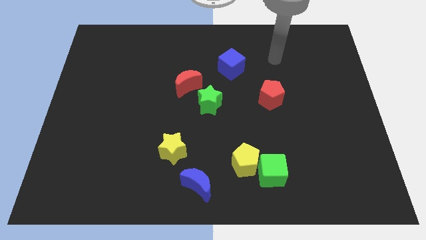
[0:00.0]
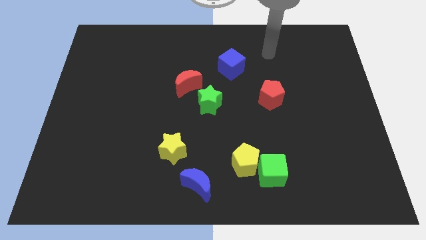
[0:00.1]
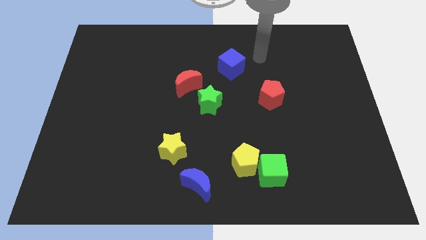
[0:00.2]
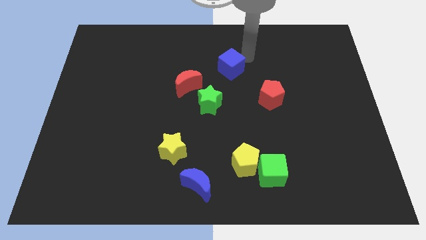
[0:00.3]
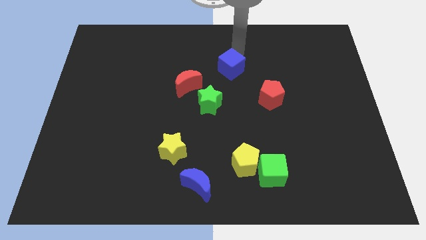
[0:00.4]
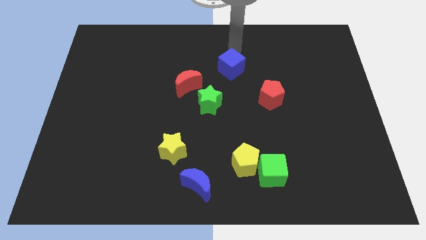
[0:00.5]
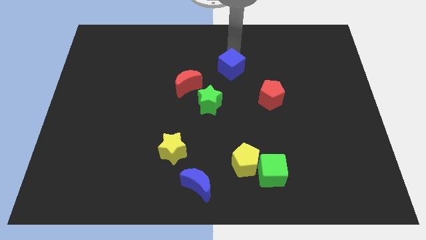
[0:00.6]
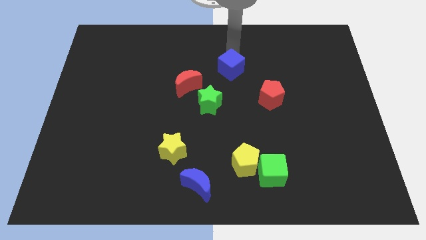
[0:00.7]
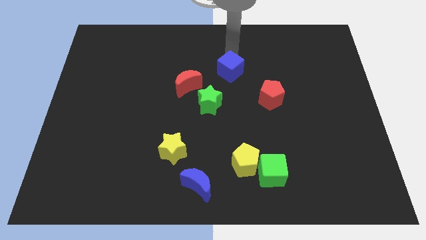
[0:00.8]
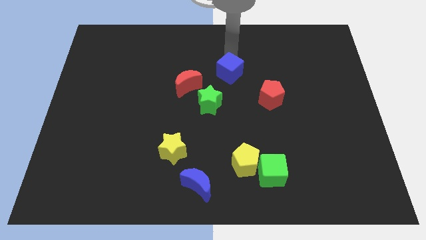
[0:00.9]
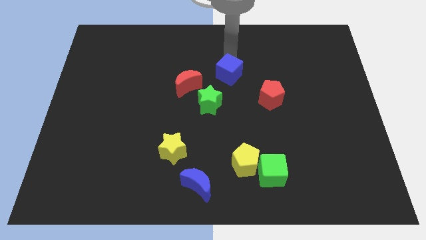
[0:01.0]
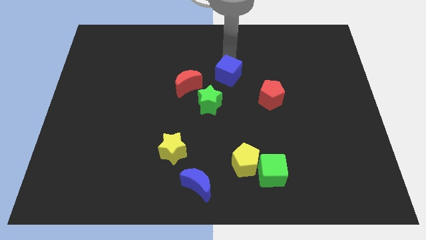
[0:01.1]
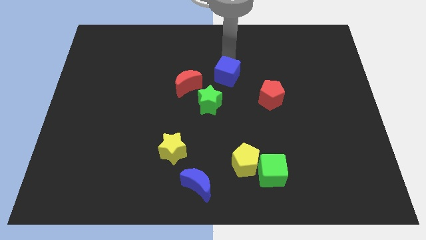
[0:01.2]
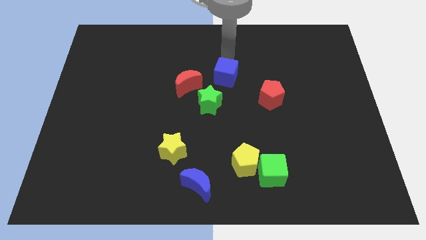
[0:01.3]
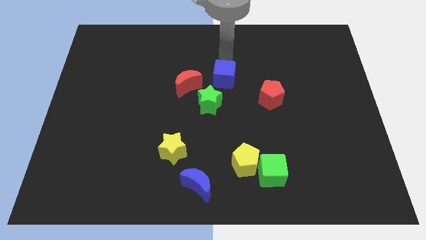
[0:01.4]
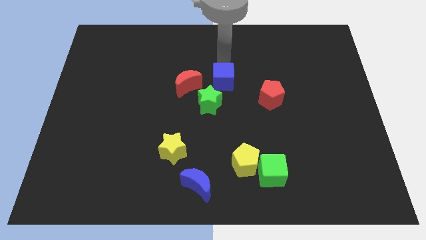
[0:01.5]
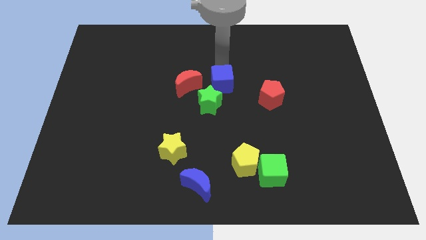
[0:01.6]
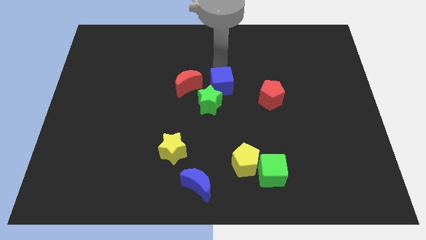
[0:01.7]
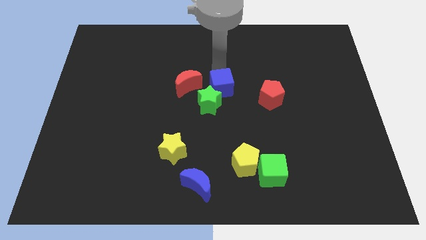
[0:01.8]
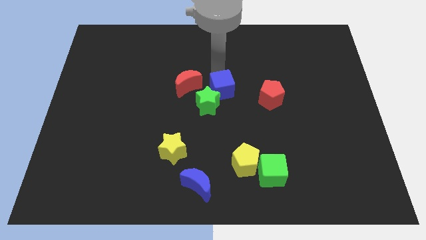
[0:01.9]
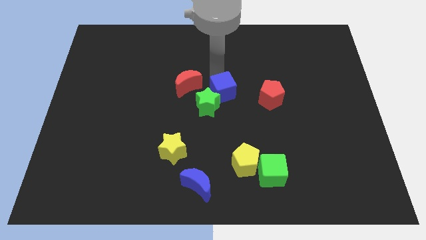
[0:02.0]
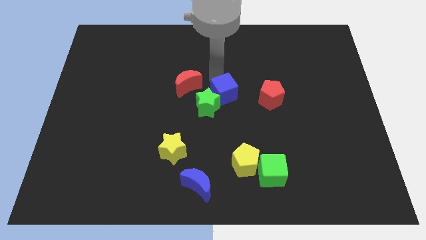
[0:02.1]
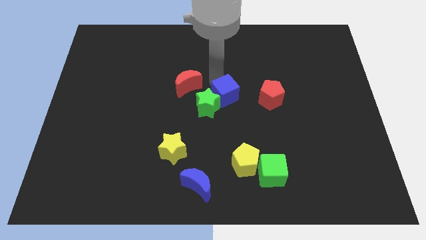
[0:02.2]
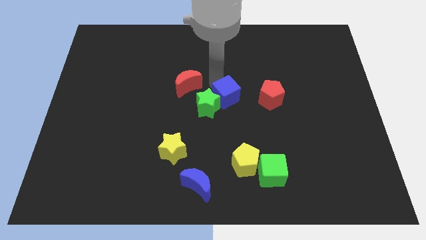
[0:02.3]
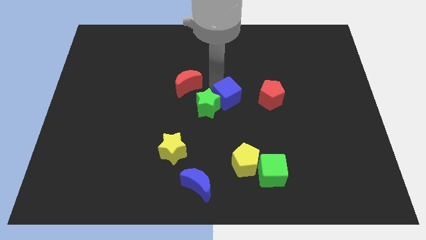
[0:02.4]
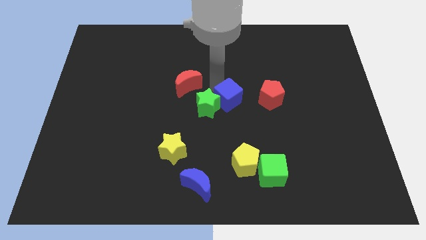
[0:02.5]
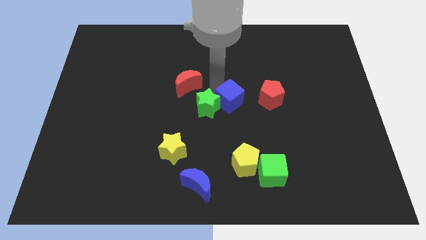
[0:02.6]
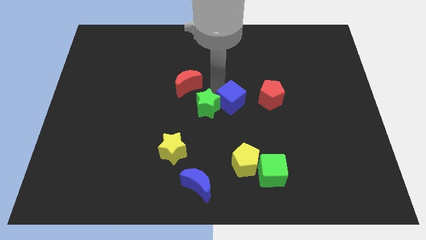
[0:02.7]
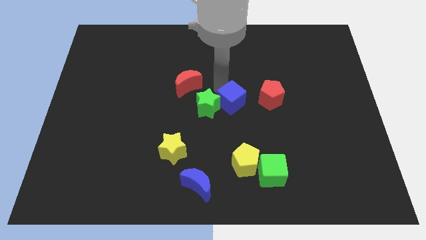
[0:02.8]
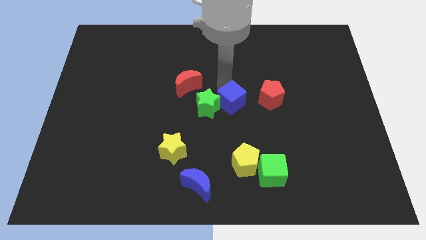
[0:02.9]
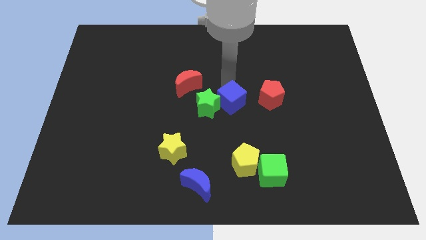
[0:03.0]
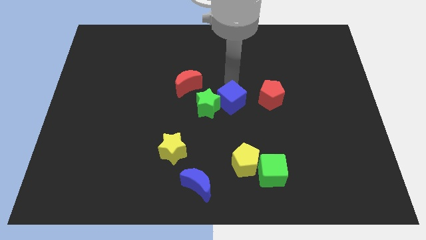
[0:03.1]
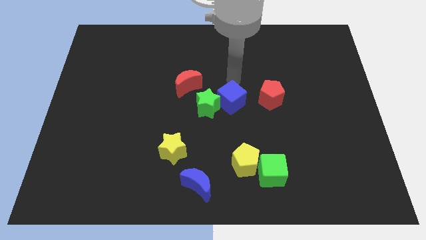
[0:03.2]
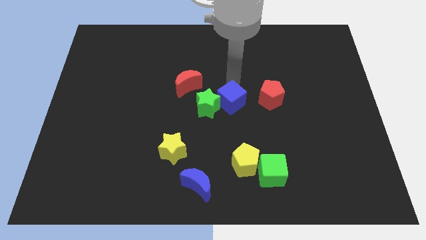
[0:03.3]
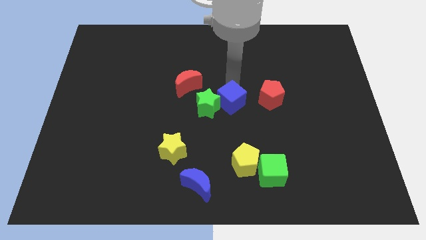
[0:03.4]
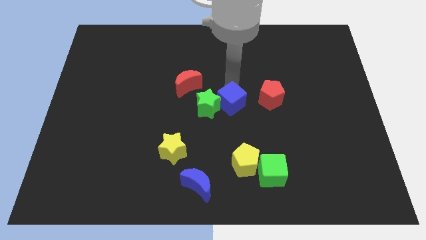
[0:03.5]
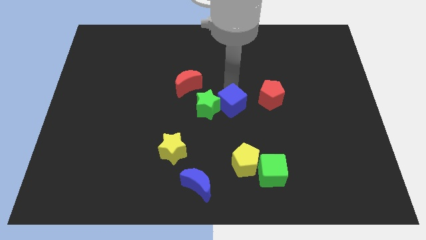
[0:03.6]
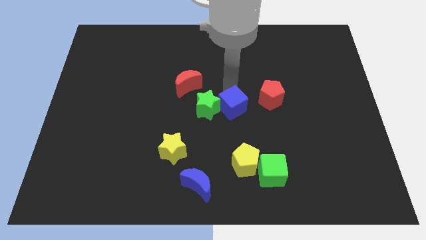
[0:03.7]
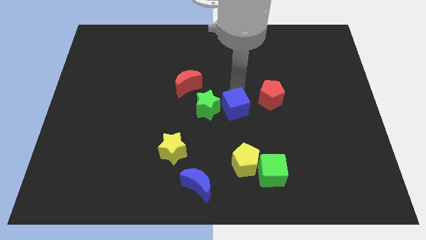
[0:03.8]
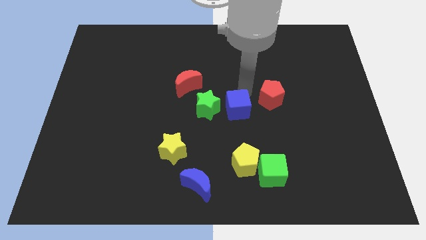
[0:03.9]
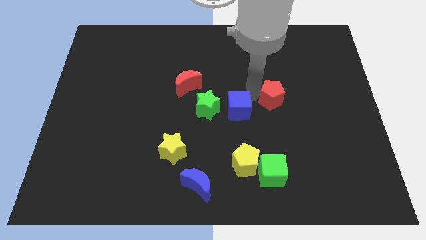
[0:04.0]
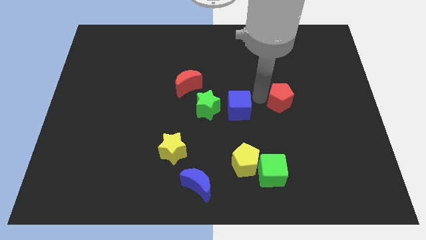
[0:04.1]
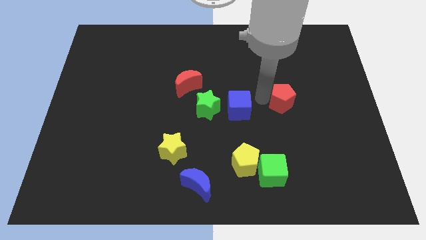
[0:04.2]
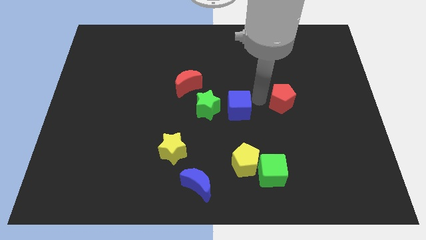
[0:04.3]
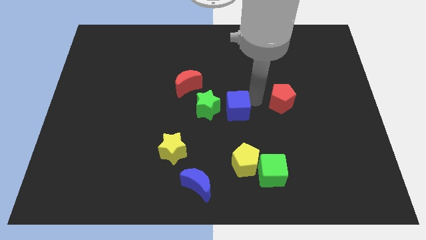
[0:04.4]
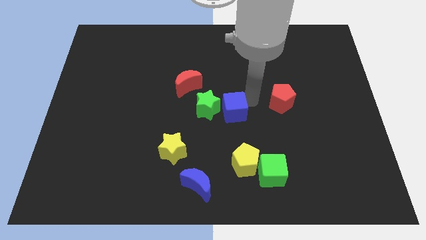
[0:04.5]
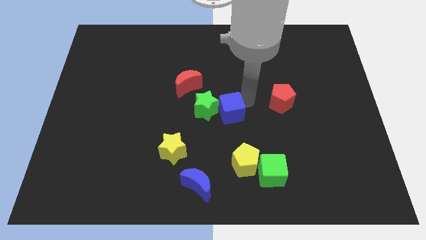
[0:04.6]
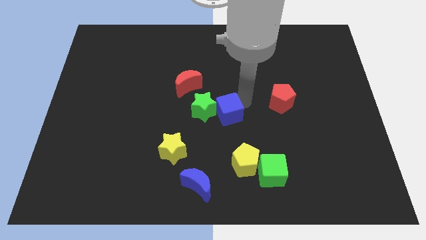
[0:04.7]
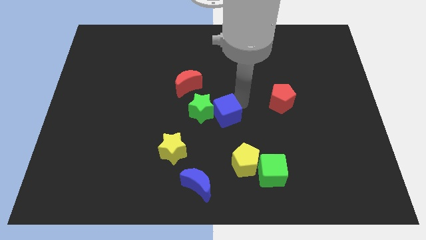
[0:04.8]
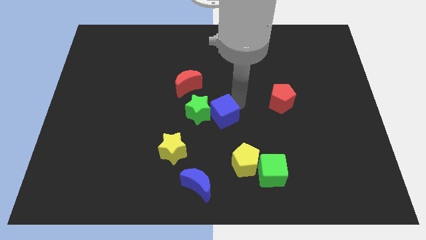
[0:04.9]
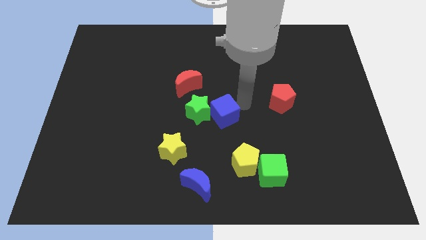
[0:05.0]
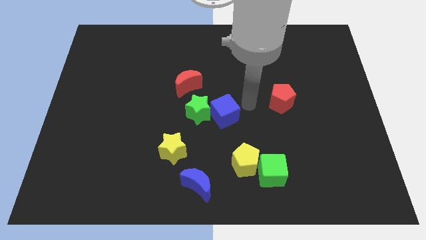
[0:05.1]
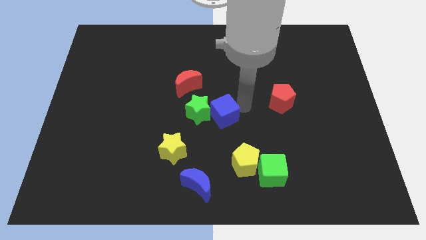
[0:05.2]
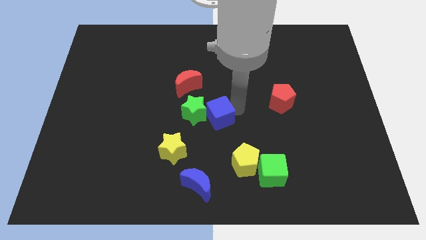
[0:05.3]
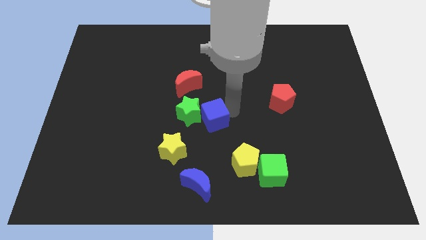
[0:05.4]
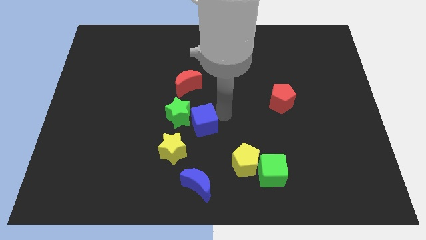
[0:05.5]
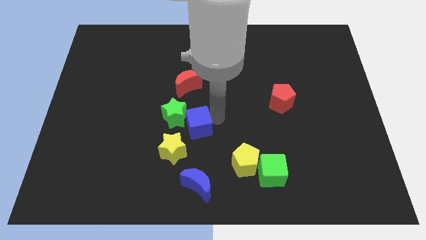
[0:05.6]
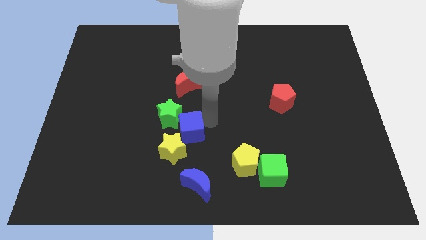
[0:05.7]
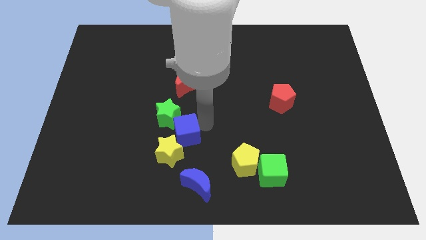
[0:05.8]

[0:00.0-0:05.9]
push the blue cube down and left diagonally

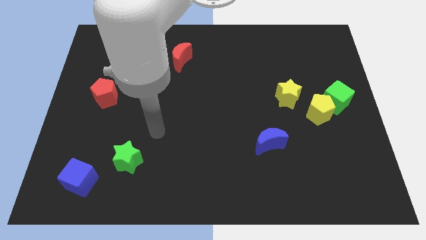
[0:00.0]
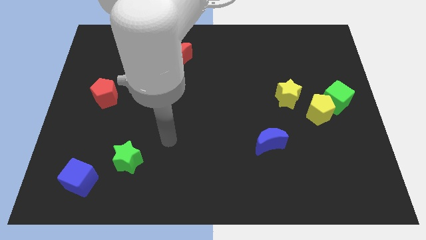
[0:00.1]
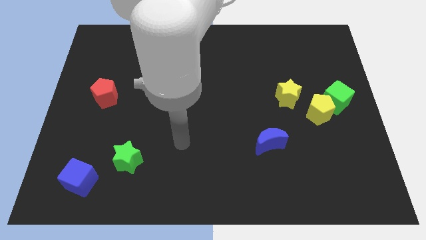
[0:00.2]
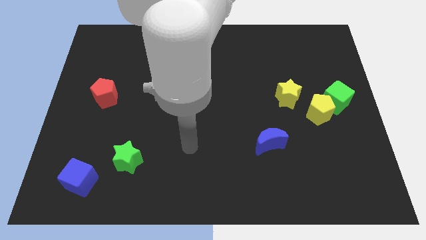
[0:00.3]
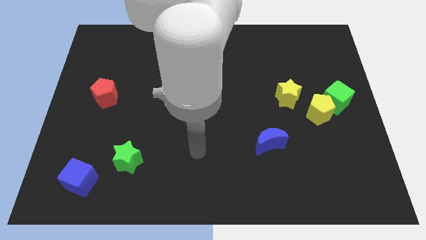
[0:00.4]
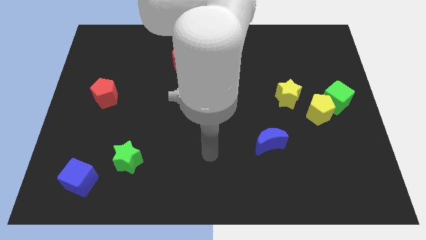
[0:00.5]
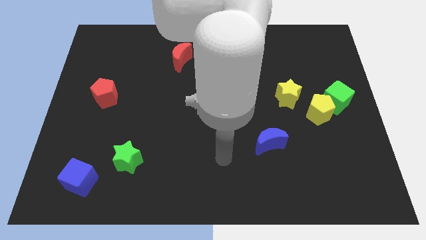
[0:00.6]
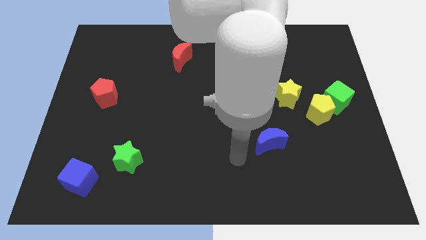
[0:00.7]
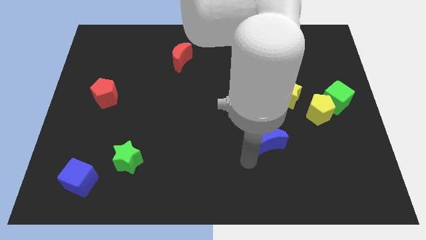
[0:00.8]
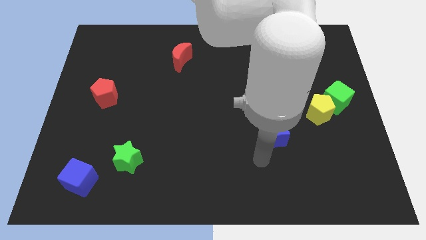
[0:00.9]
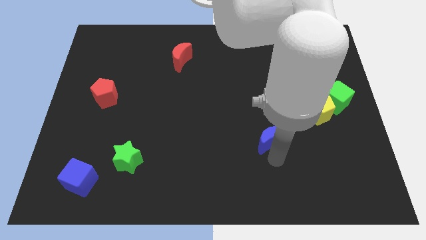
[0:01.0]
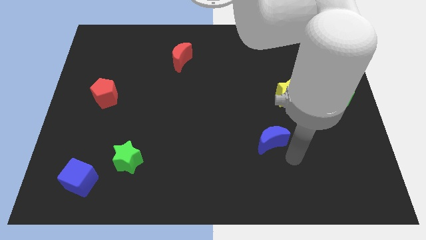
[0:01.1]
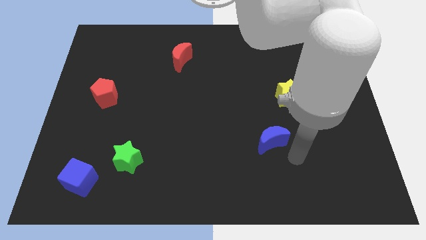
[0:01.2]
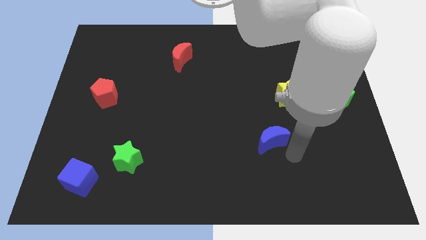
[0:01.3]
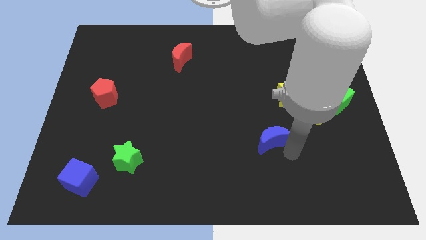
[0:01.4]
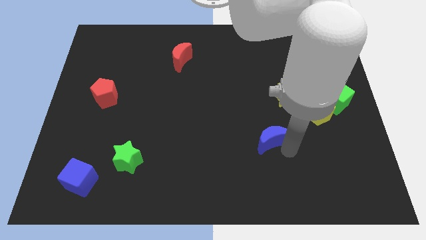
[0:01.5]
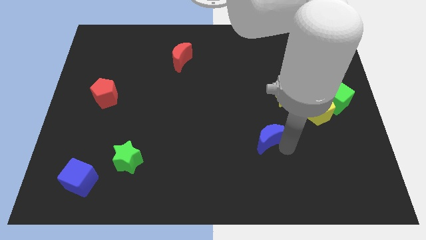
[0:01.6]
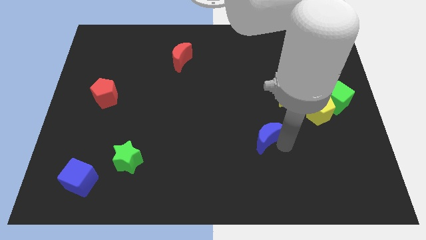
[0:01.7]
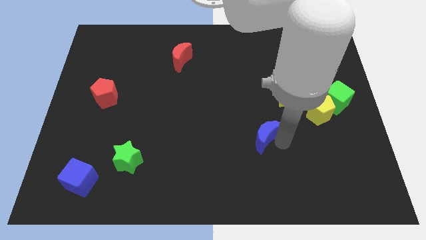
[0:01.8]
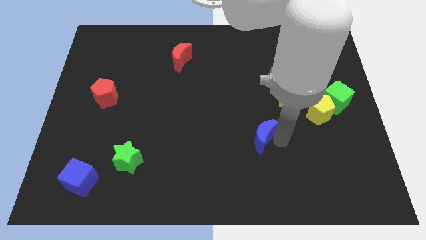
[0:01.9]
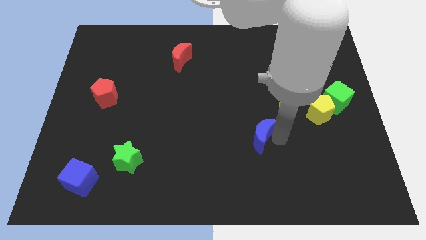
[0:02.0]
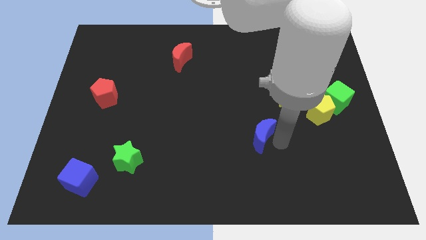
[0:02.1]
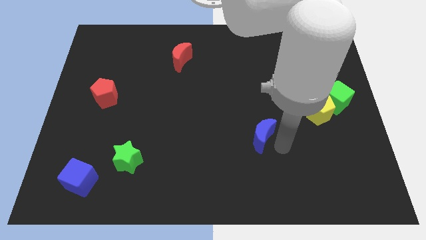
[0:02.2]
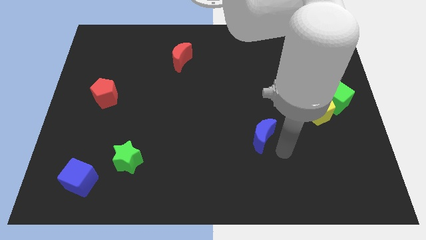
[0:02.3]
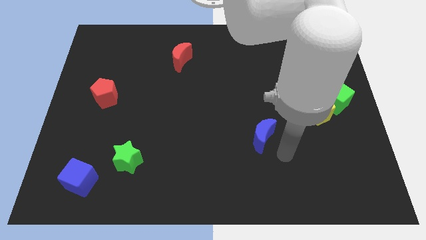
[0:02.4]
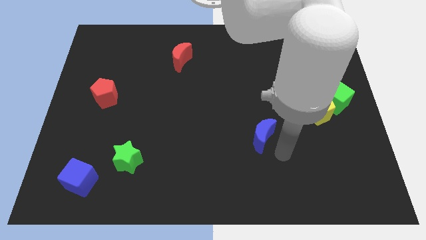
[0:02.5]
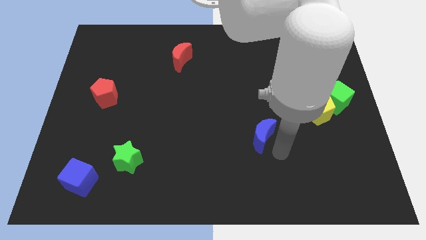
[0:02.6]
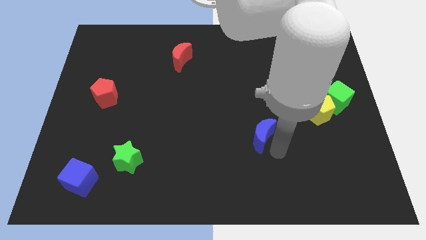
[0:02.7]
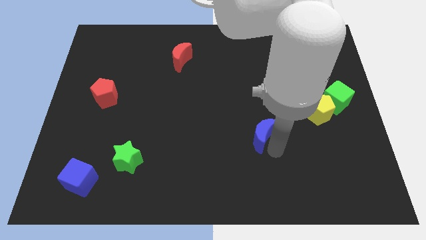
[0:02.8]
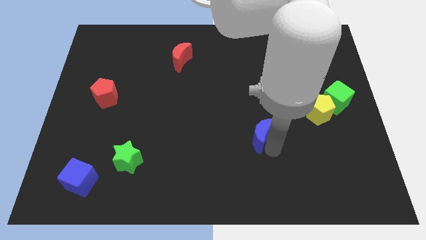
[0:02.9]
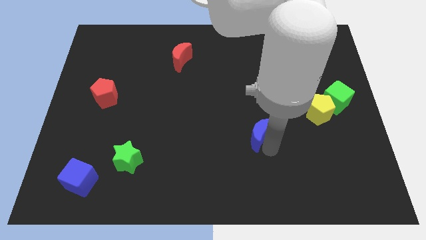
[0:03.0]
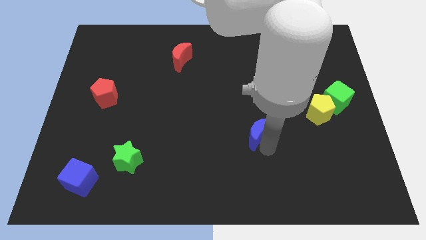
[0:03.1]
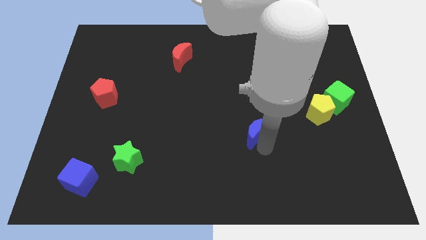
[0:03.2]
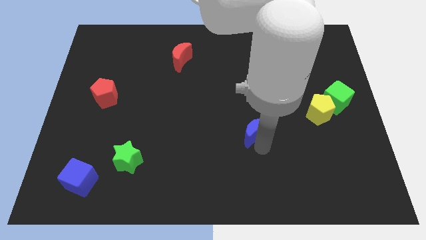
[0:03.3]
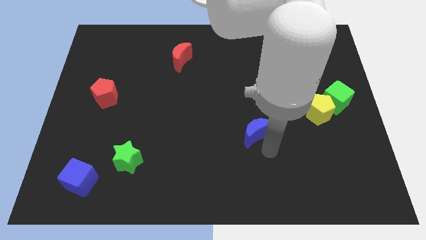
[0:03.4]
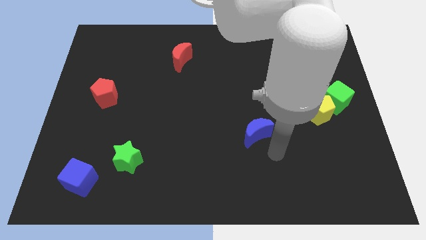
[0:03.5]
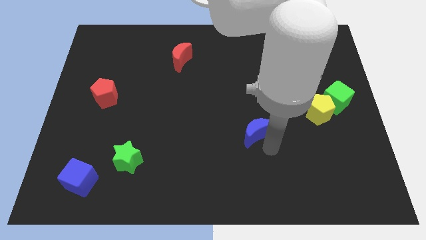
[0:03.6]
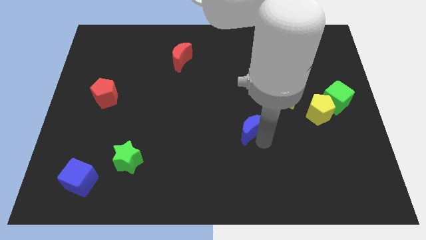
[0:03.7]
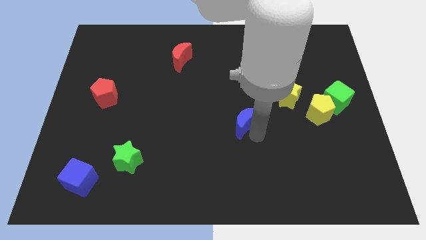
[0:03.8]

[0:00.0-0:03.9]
move the blue moon up and then to the left a little
